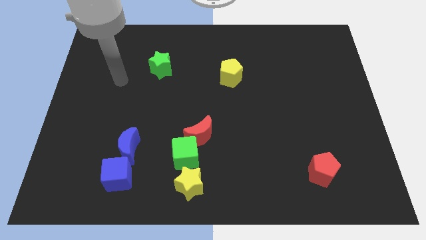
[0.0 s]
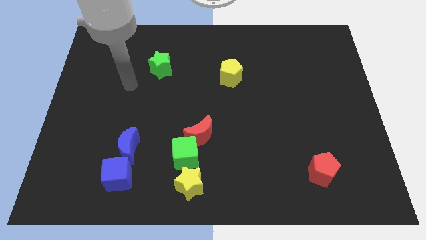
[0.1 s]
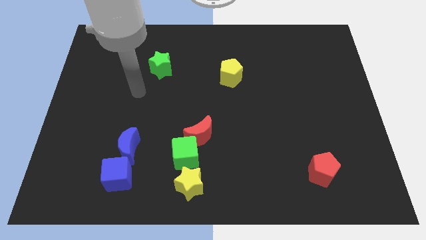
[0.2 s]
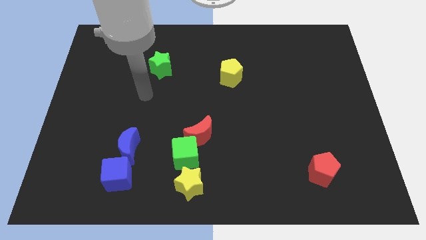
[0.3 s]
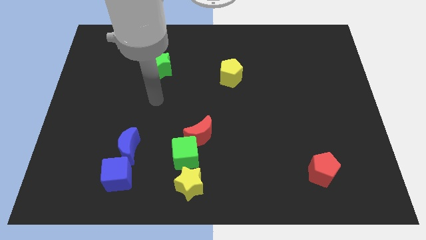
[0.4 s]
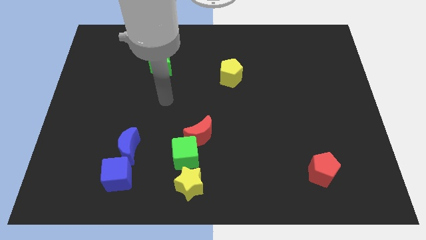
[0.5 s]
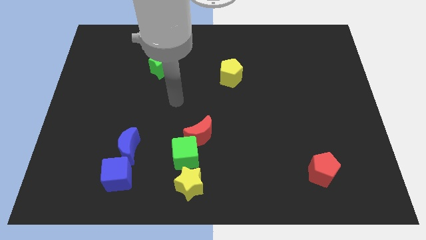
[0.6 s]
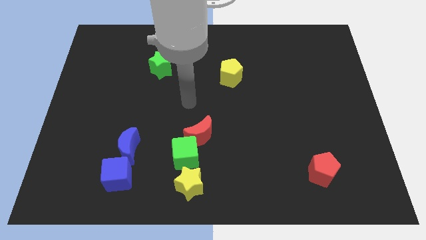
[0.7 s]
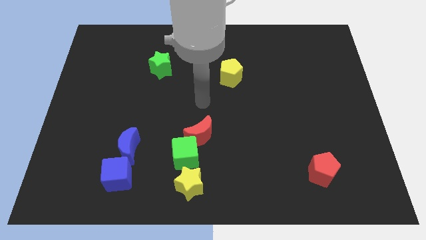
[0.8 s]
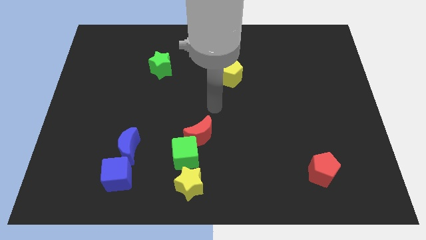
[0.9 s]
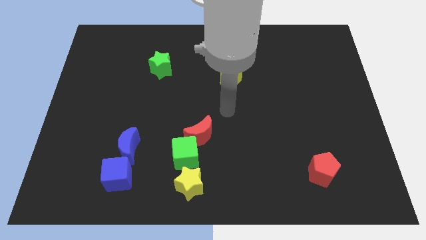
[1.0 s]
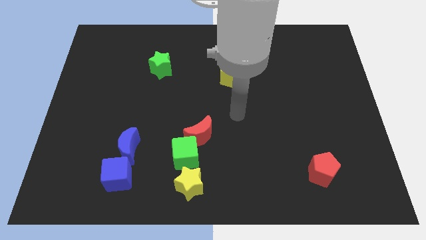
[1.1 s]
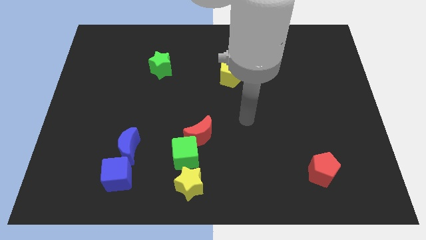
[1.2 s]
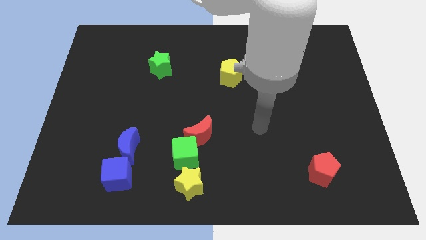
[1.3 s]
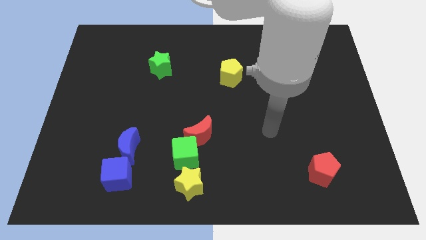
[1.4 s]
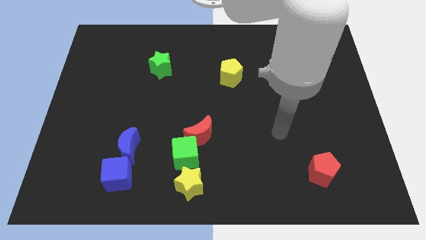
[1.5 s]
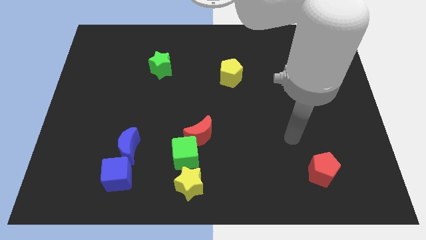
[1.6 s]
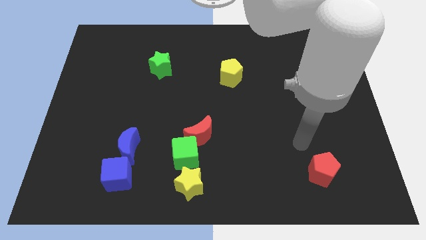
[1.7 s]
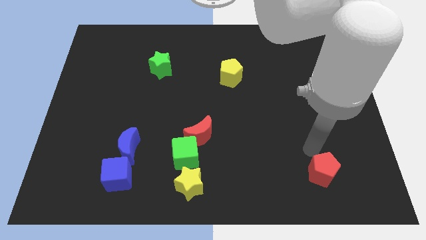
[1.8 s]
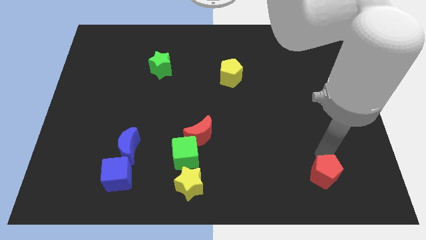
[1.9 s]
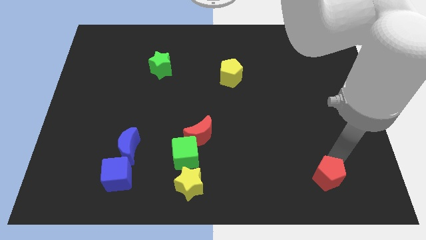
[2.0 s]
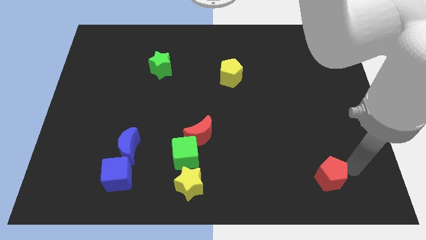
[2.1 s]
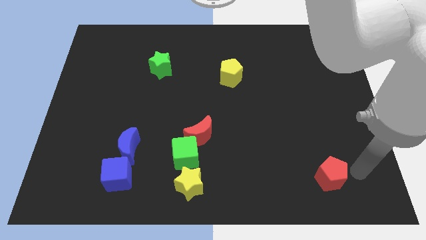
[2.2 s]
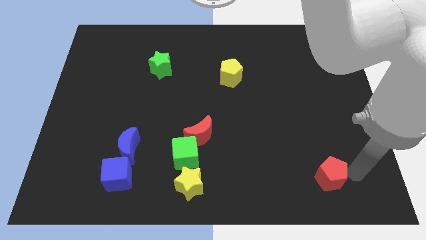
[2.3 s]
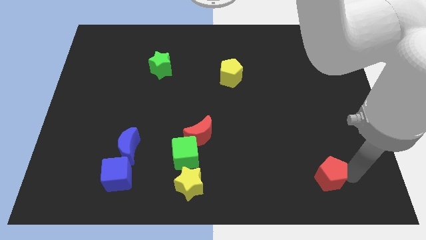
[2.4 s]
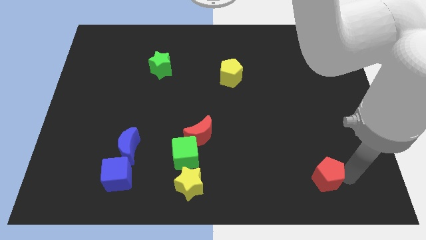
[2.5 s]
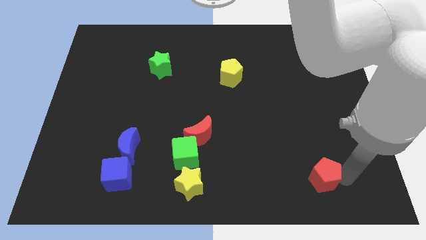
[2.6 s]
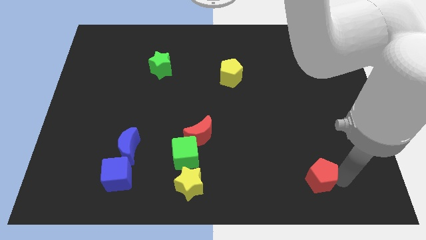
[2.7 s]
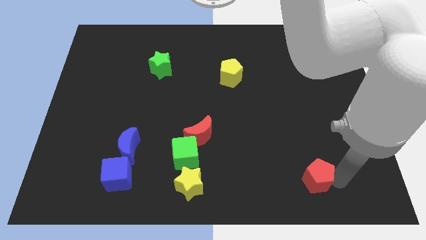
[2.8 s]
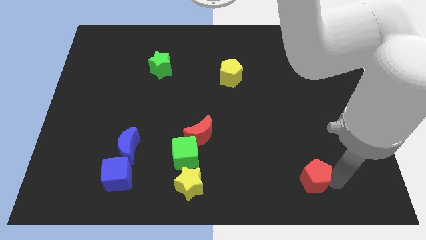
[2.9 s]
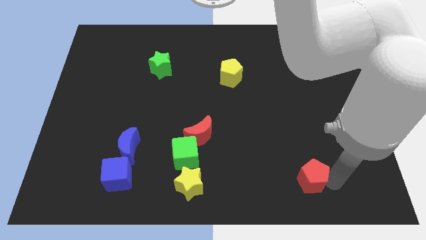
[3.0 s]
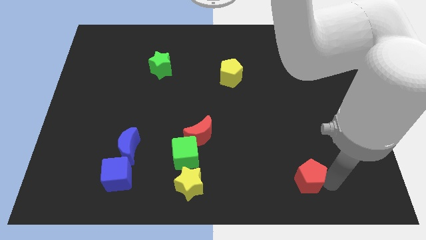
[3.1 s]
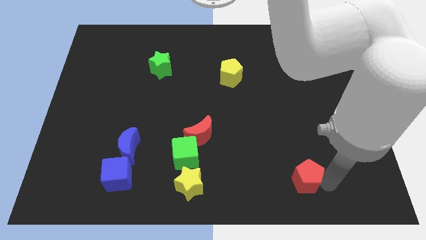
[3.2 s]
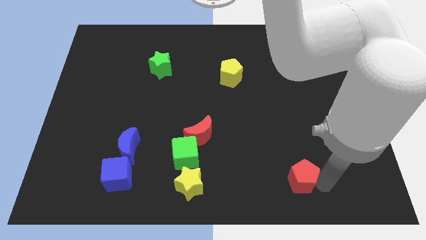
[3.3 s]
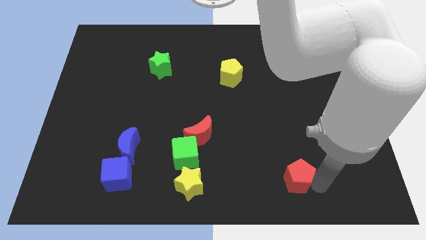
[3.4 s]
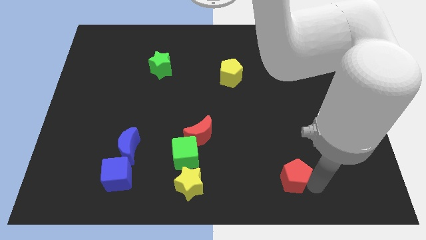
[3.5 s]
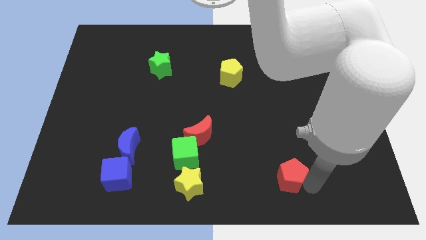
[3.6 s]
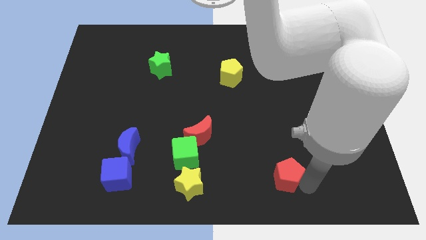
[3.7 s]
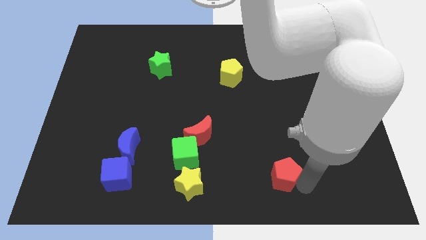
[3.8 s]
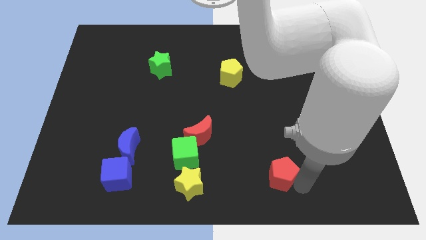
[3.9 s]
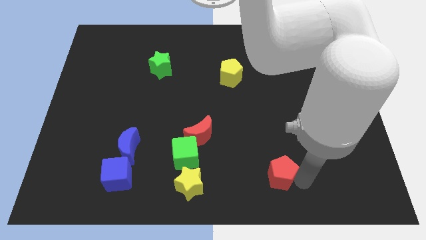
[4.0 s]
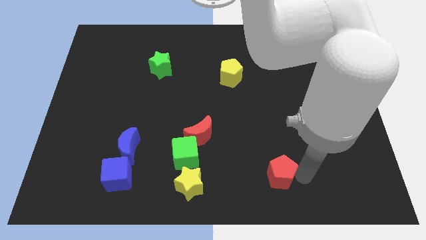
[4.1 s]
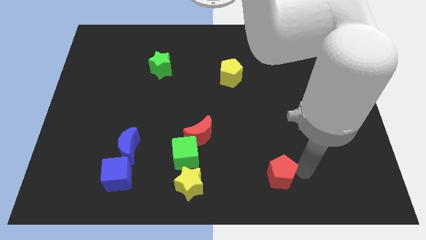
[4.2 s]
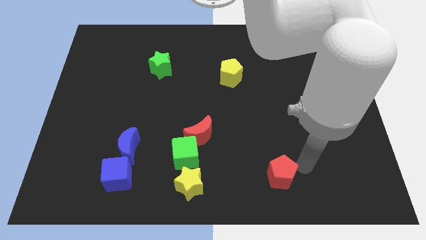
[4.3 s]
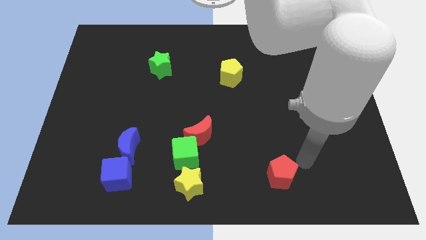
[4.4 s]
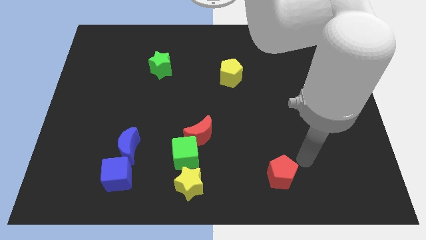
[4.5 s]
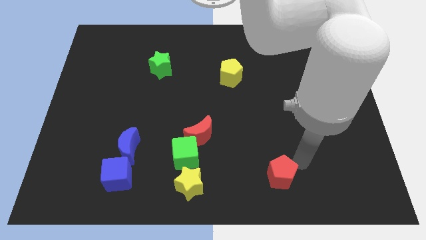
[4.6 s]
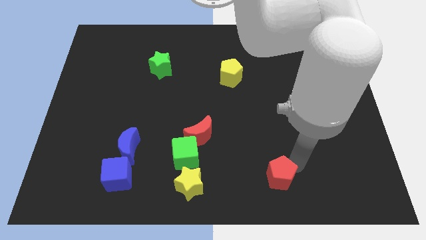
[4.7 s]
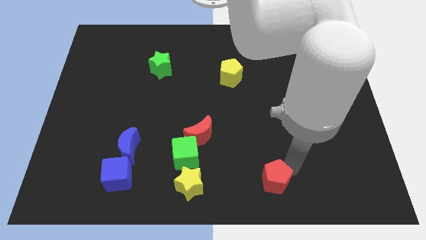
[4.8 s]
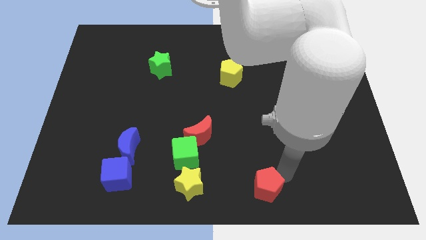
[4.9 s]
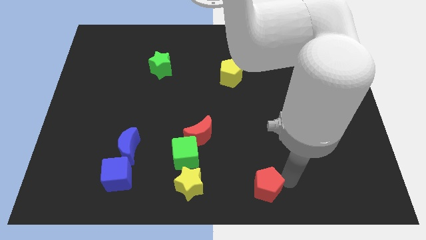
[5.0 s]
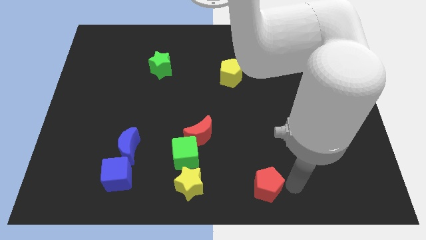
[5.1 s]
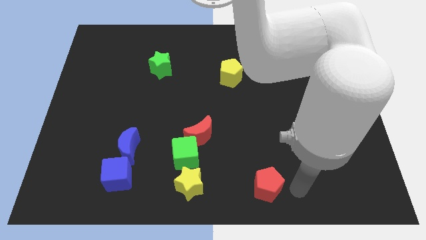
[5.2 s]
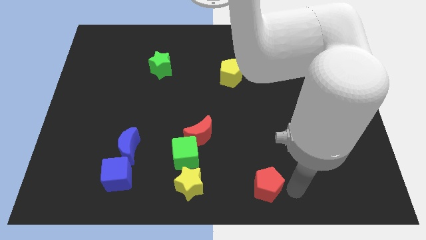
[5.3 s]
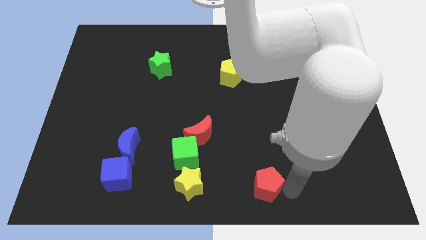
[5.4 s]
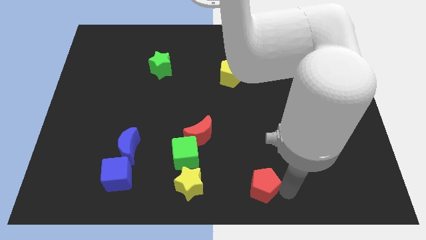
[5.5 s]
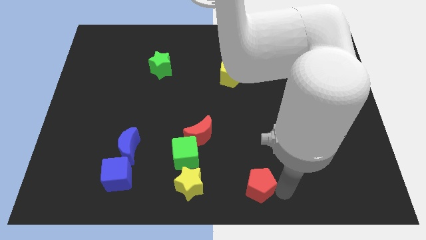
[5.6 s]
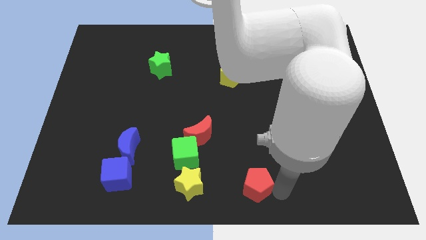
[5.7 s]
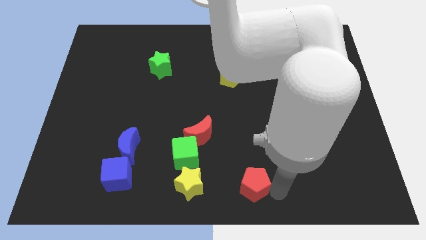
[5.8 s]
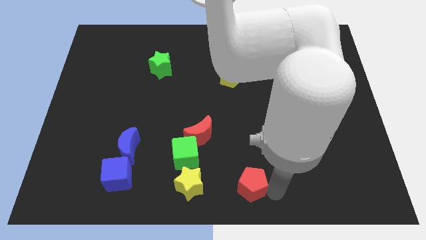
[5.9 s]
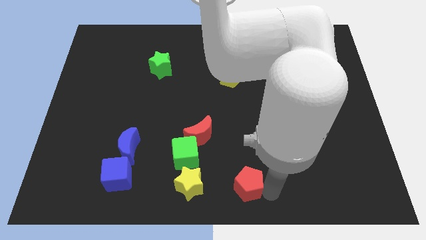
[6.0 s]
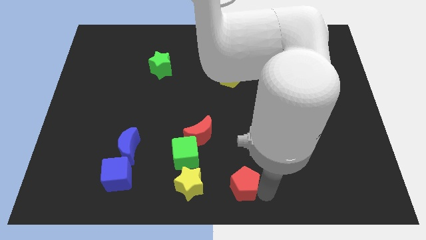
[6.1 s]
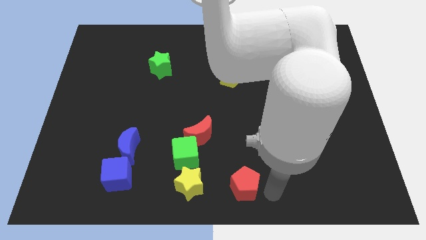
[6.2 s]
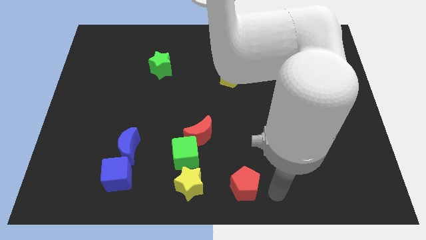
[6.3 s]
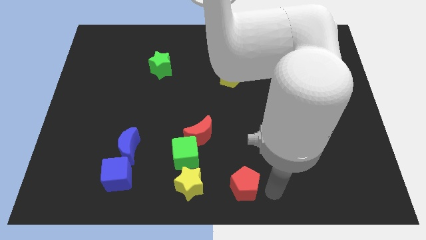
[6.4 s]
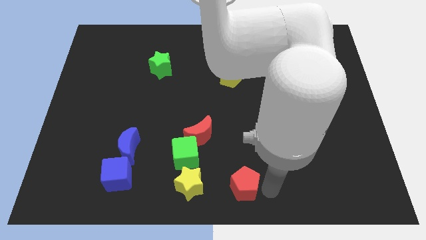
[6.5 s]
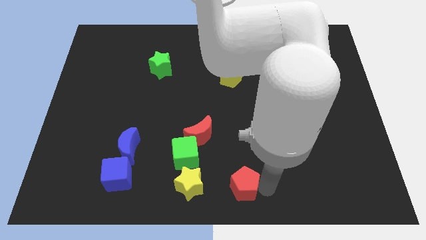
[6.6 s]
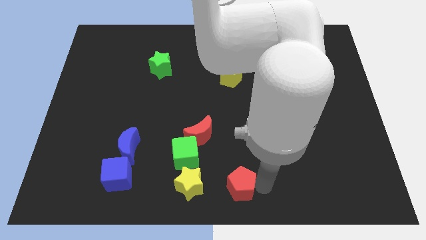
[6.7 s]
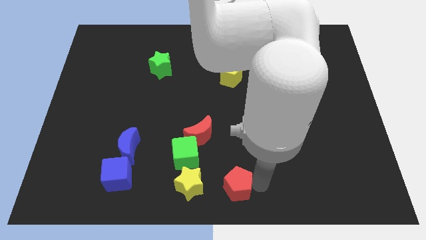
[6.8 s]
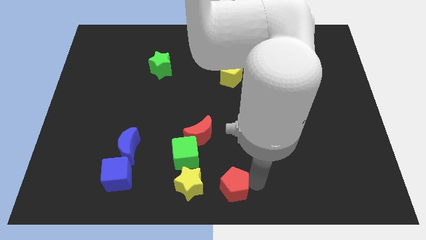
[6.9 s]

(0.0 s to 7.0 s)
move the red pentagon to the bottom right of the green cube

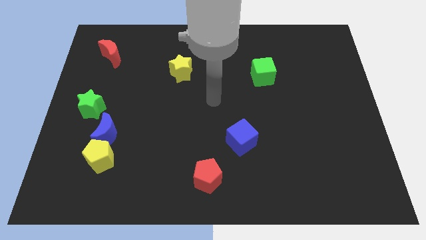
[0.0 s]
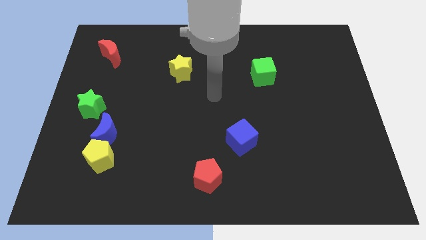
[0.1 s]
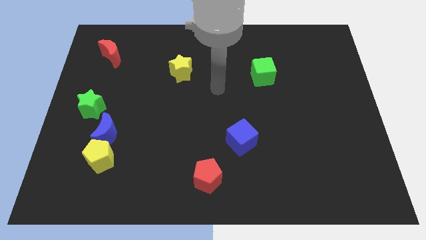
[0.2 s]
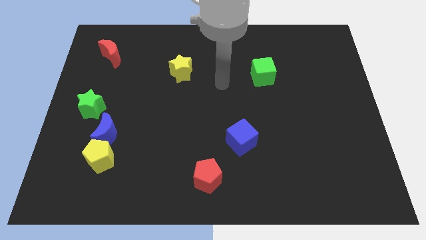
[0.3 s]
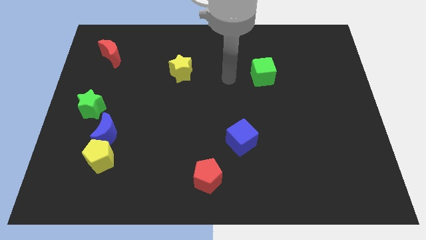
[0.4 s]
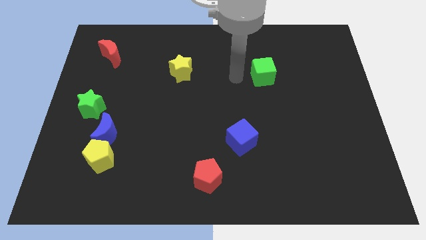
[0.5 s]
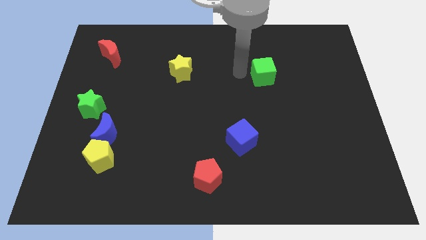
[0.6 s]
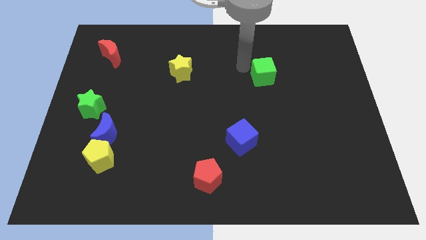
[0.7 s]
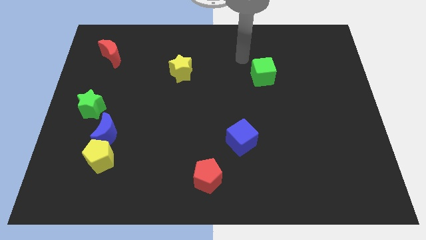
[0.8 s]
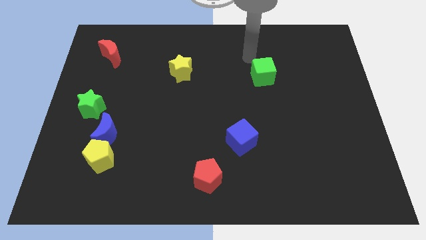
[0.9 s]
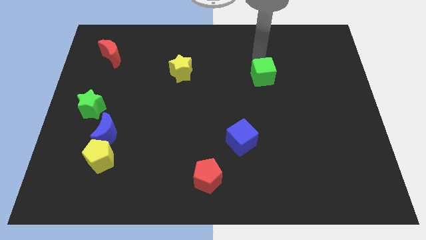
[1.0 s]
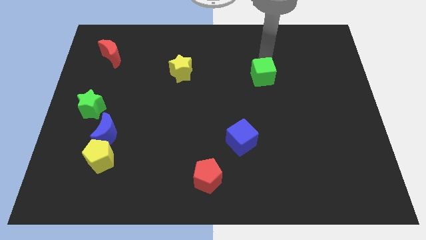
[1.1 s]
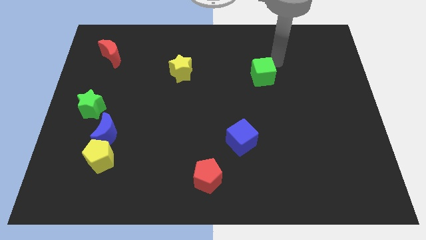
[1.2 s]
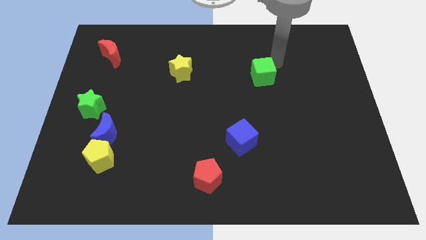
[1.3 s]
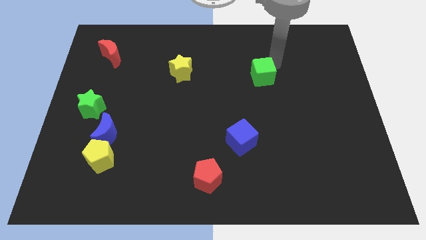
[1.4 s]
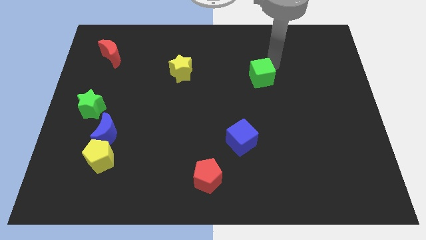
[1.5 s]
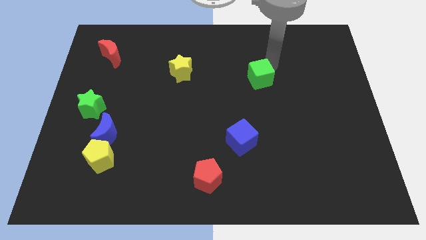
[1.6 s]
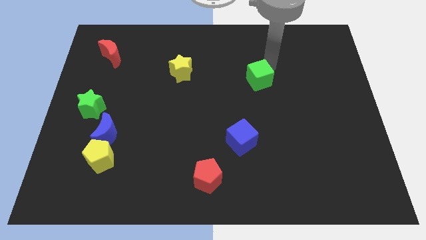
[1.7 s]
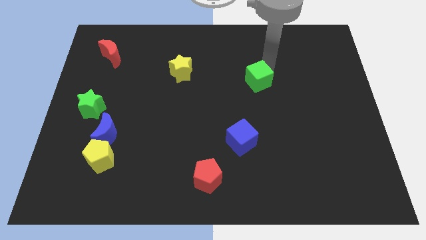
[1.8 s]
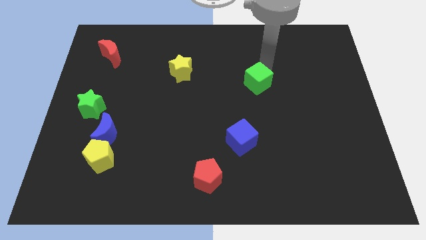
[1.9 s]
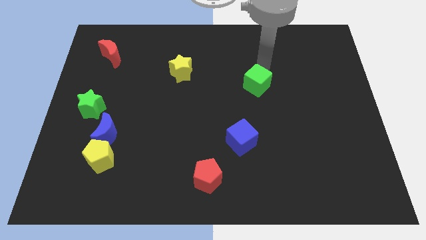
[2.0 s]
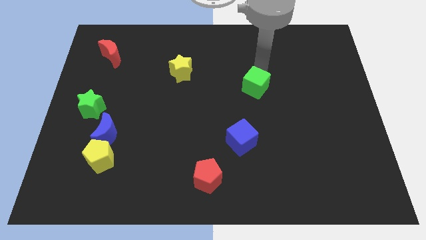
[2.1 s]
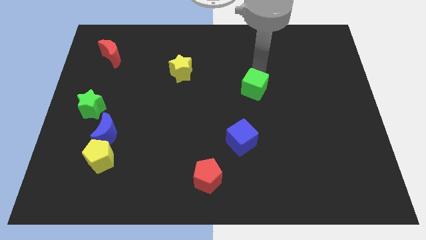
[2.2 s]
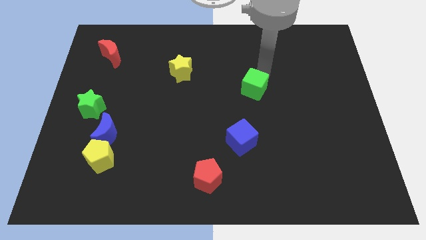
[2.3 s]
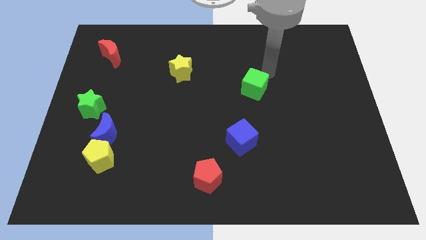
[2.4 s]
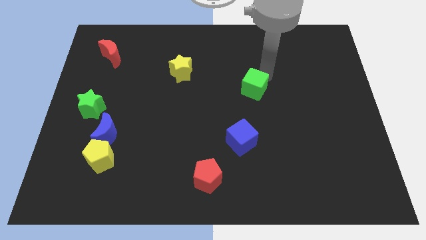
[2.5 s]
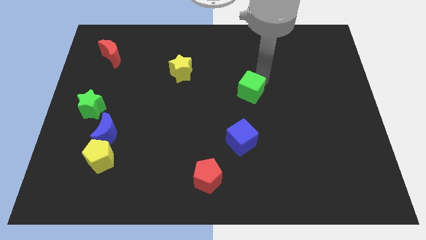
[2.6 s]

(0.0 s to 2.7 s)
move the green cube above the blue cube
